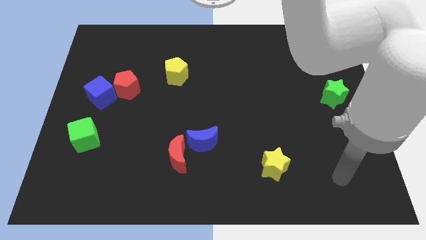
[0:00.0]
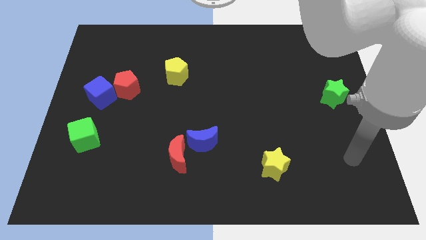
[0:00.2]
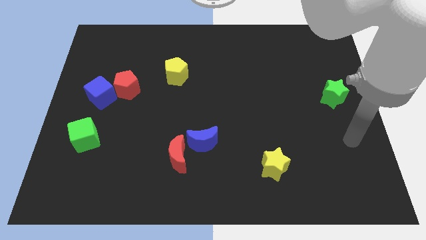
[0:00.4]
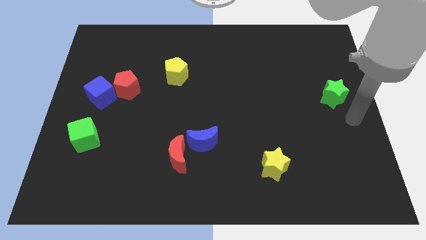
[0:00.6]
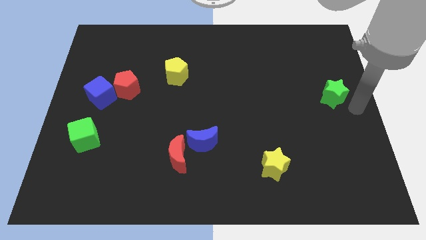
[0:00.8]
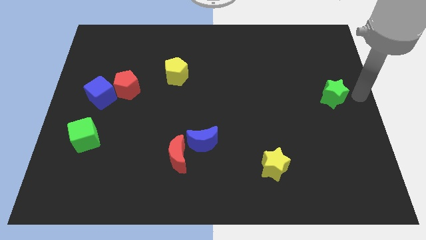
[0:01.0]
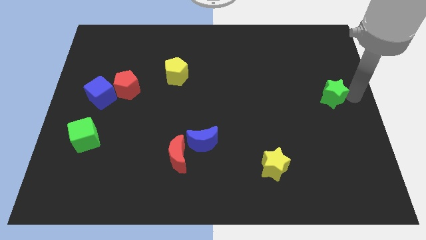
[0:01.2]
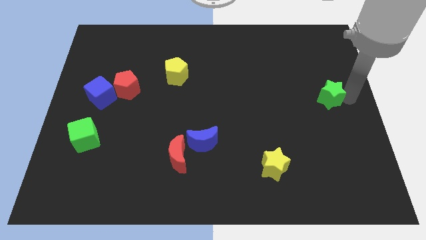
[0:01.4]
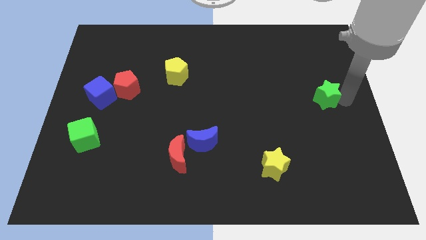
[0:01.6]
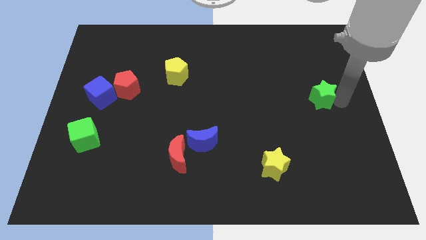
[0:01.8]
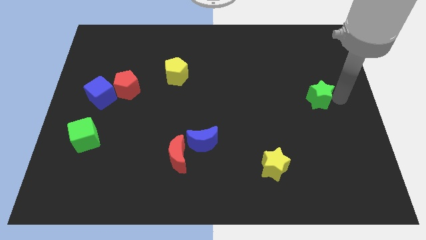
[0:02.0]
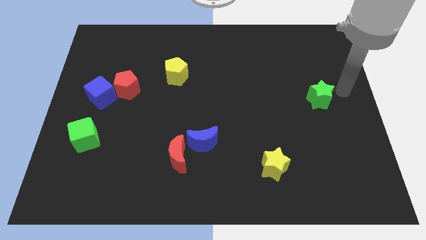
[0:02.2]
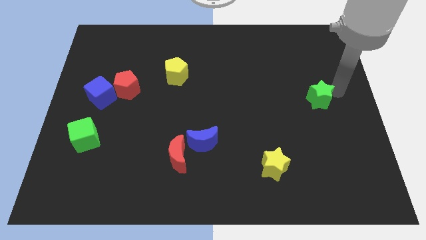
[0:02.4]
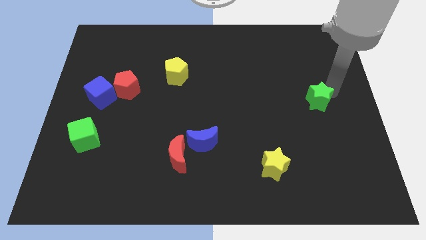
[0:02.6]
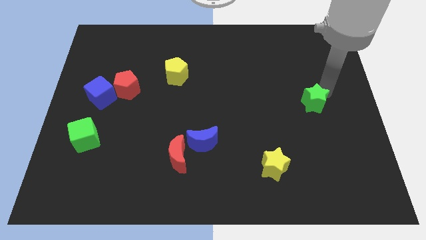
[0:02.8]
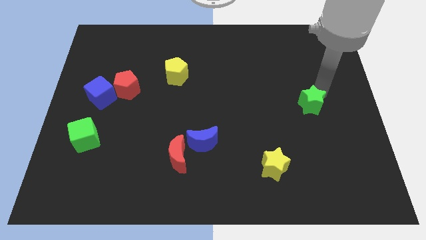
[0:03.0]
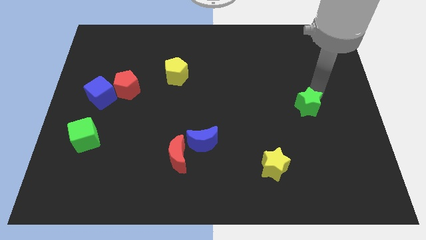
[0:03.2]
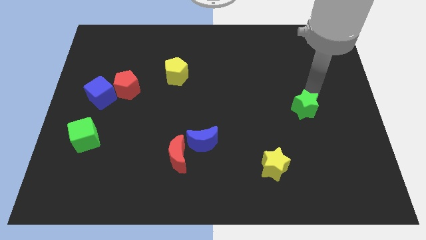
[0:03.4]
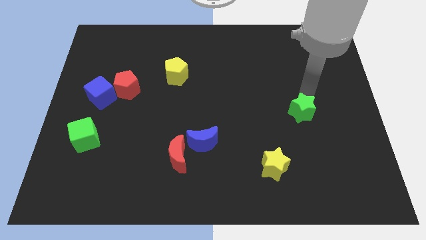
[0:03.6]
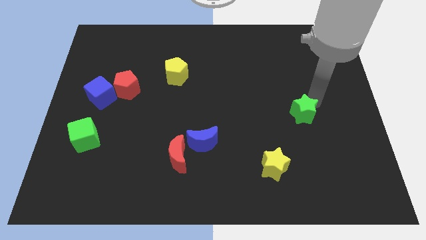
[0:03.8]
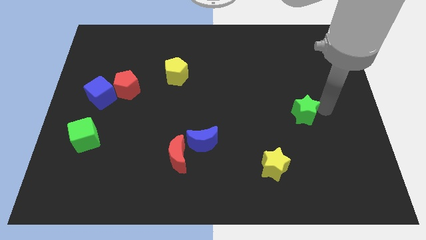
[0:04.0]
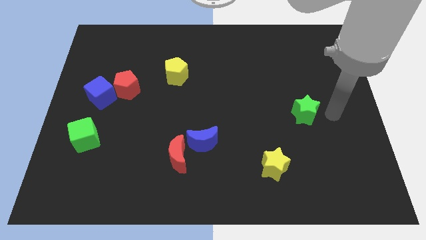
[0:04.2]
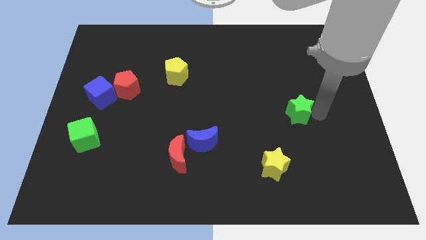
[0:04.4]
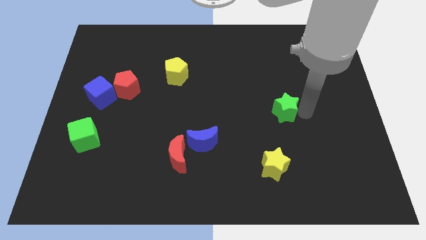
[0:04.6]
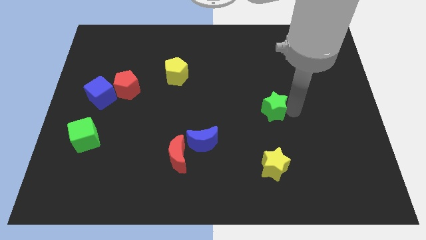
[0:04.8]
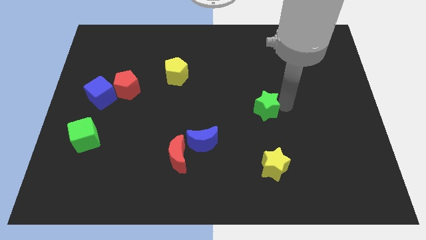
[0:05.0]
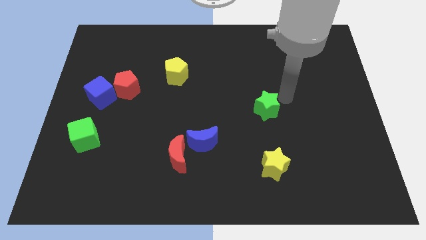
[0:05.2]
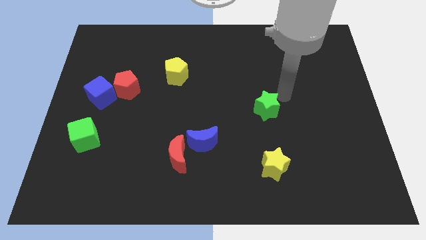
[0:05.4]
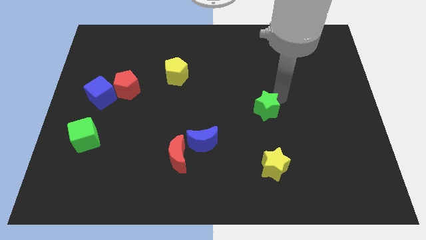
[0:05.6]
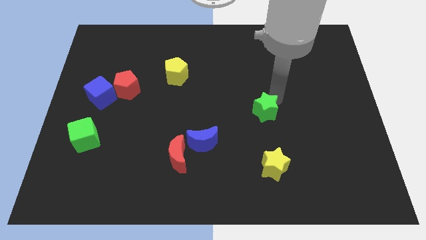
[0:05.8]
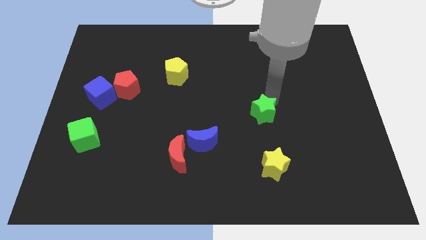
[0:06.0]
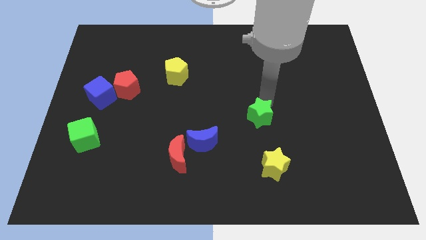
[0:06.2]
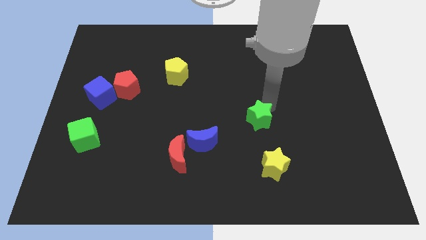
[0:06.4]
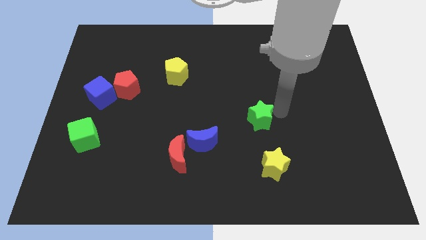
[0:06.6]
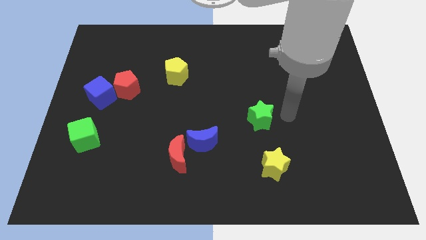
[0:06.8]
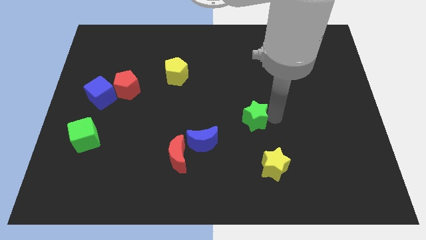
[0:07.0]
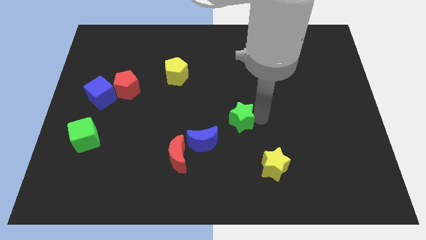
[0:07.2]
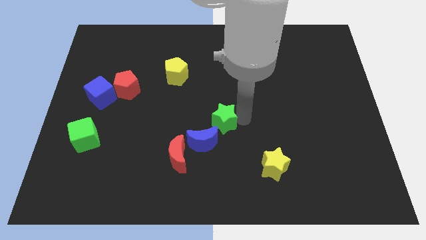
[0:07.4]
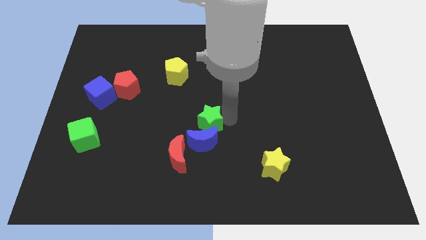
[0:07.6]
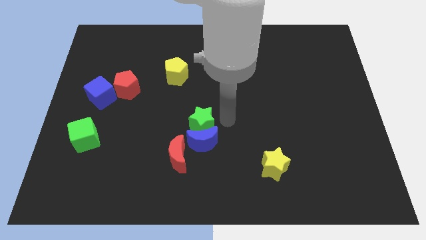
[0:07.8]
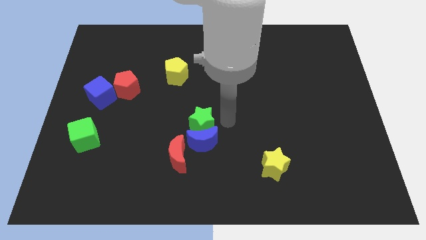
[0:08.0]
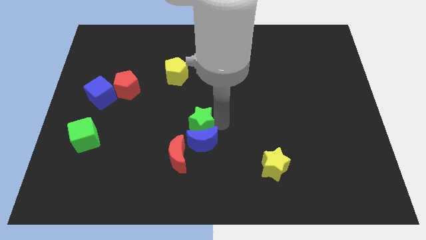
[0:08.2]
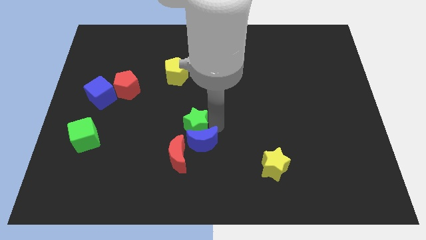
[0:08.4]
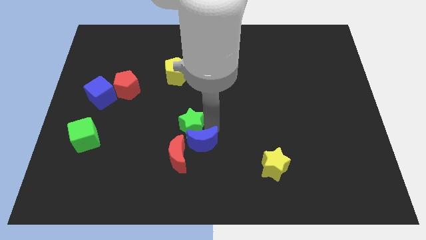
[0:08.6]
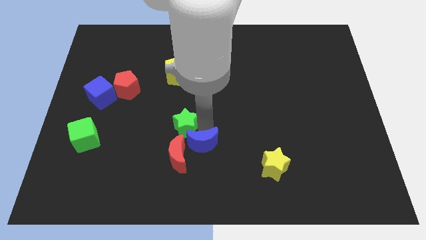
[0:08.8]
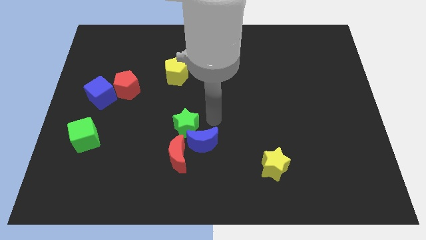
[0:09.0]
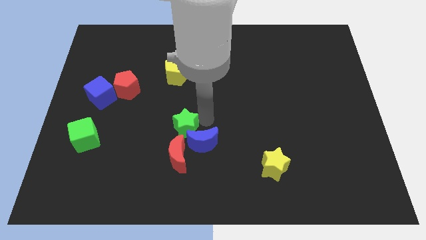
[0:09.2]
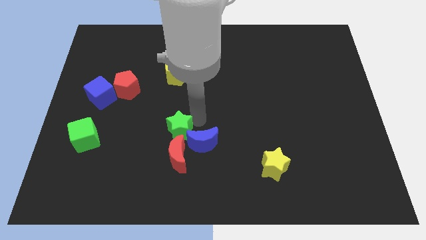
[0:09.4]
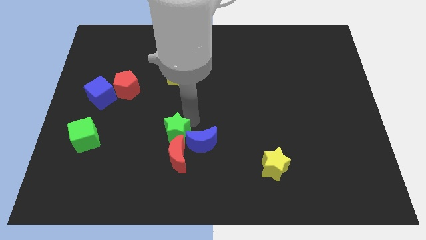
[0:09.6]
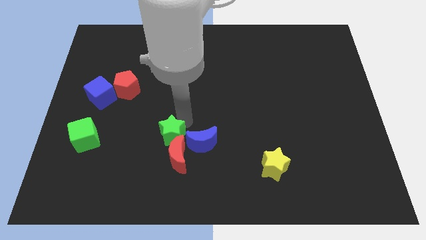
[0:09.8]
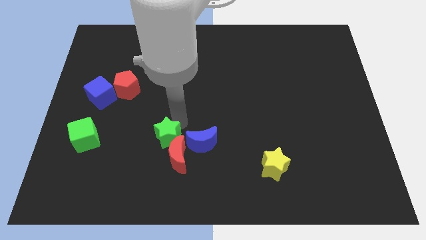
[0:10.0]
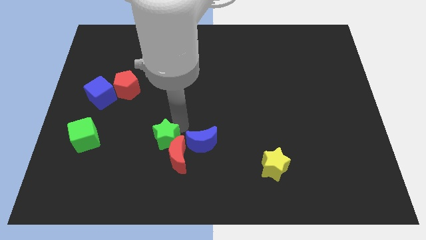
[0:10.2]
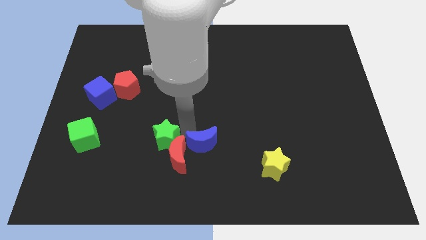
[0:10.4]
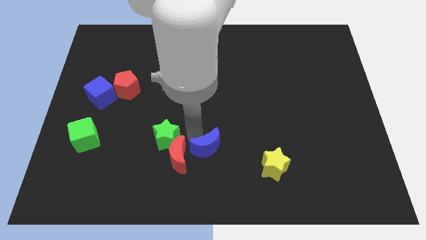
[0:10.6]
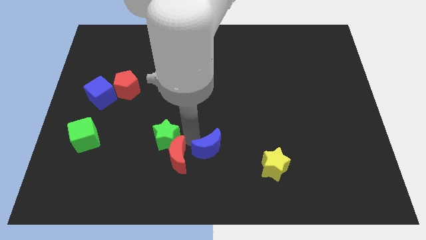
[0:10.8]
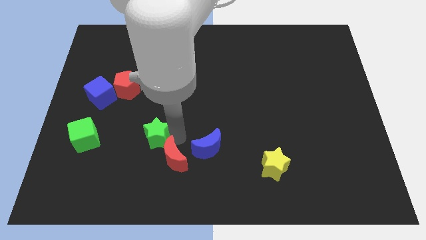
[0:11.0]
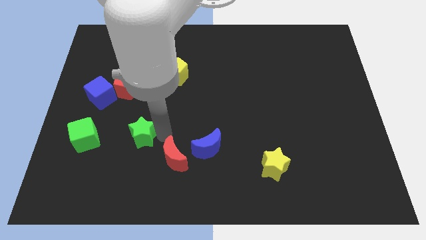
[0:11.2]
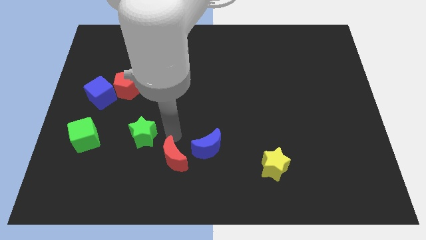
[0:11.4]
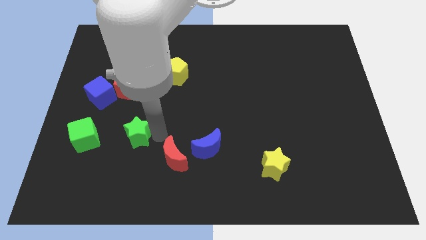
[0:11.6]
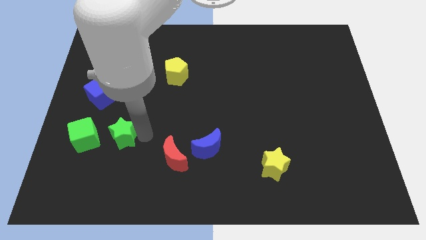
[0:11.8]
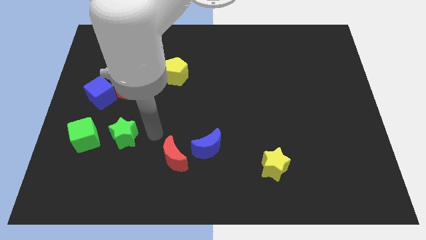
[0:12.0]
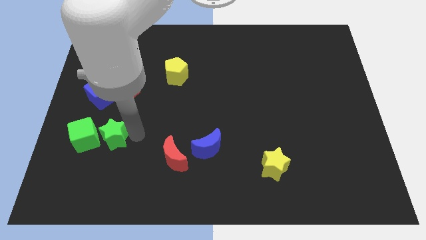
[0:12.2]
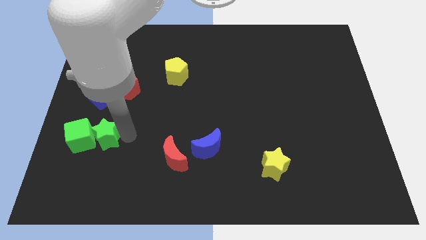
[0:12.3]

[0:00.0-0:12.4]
push the green star to the green cube

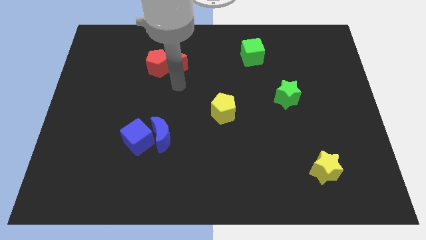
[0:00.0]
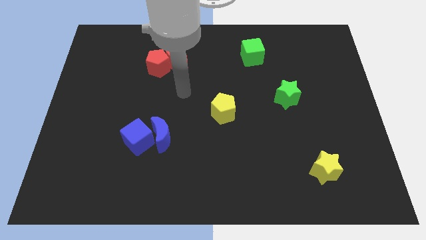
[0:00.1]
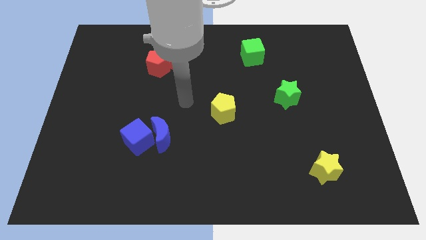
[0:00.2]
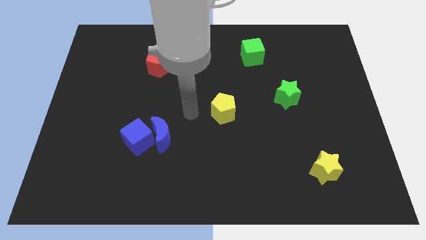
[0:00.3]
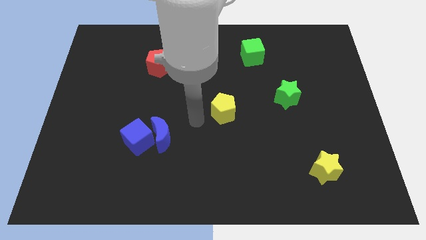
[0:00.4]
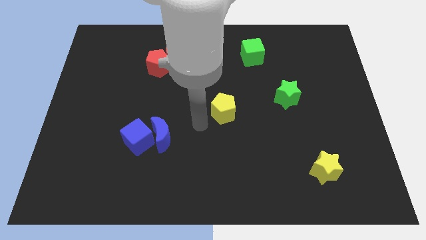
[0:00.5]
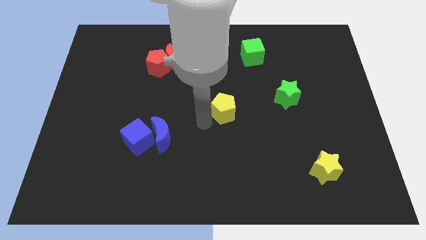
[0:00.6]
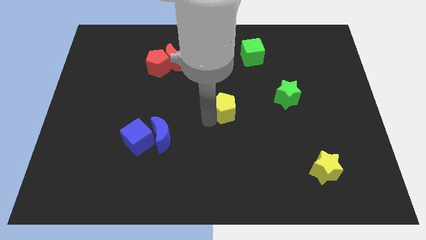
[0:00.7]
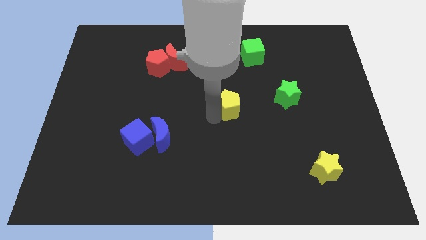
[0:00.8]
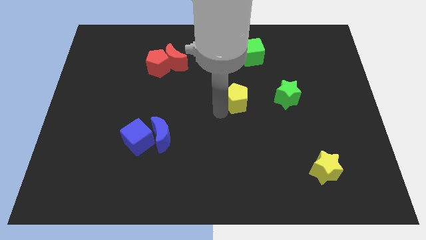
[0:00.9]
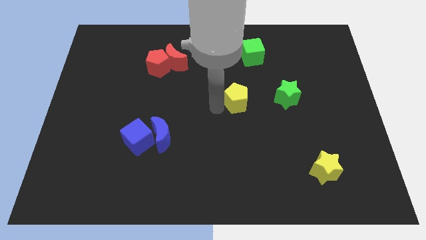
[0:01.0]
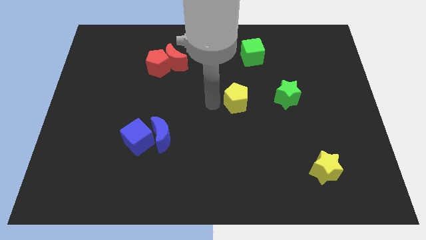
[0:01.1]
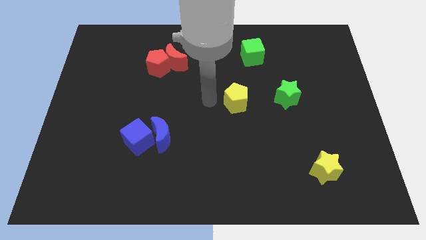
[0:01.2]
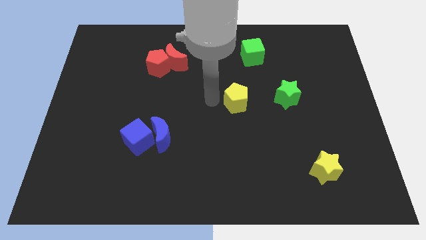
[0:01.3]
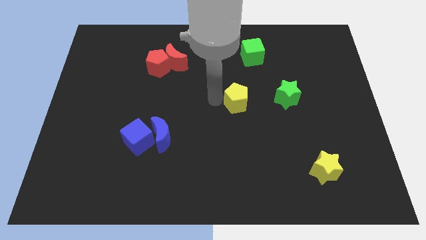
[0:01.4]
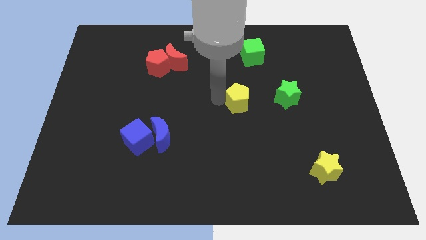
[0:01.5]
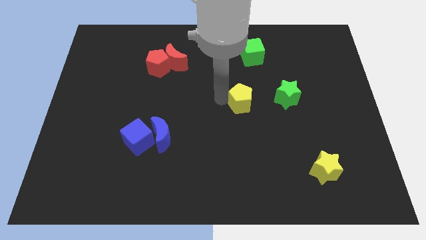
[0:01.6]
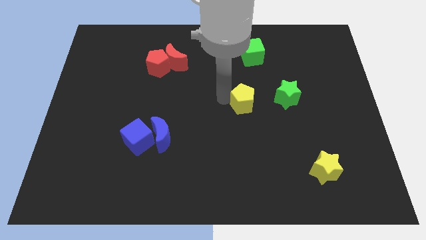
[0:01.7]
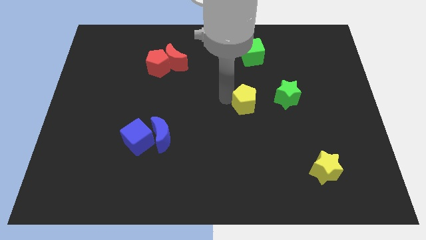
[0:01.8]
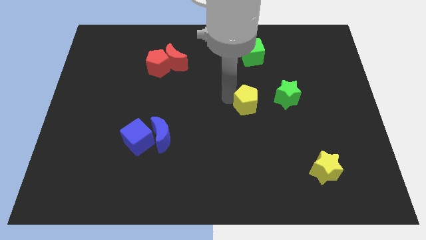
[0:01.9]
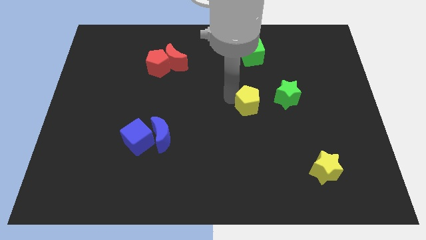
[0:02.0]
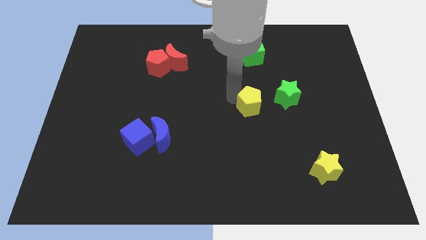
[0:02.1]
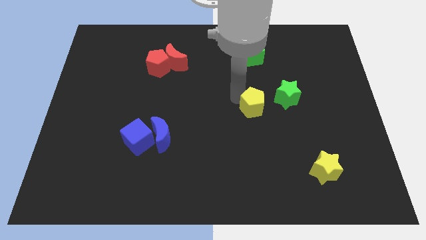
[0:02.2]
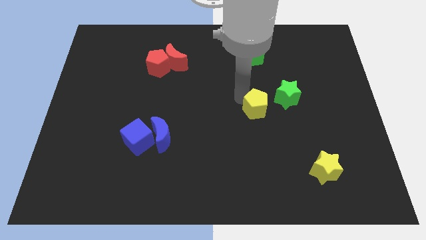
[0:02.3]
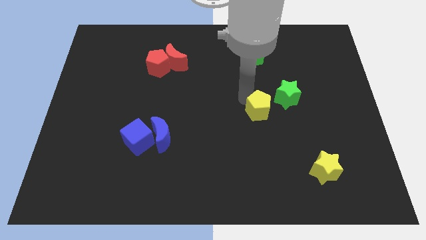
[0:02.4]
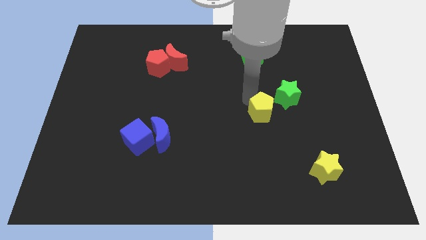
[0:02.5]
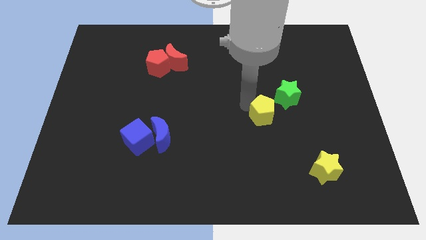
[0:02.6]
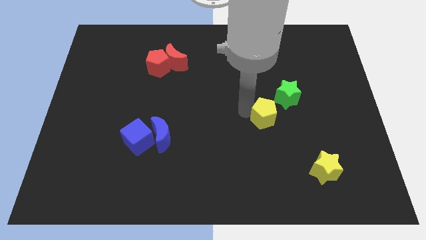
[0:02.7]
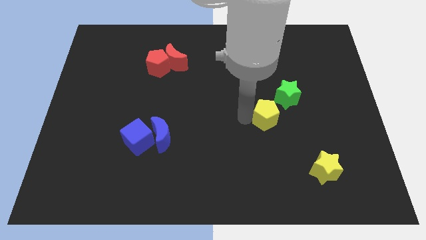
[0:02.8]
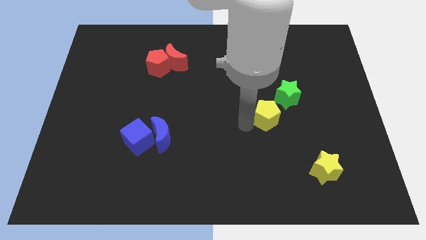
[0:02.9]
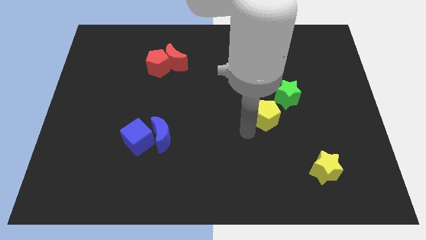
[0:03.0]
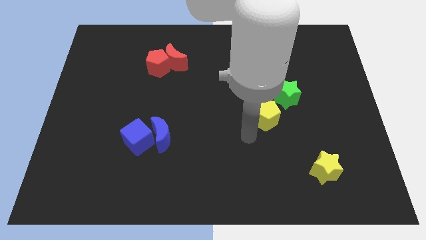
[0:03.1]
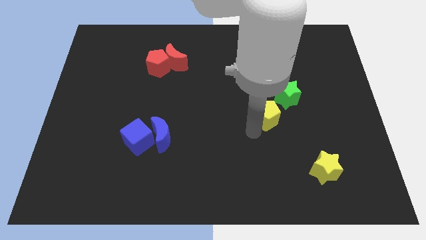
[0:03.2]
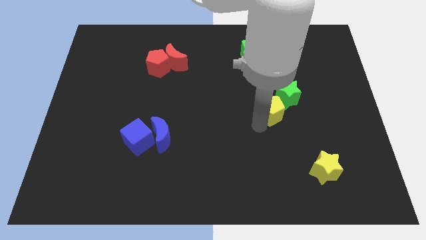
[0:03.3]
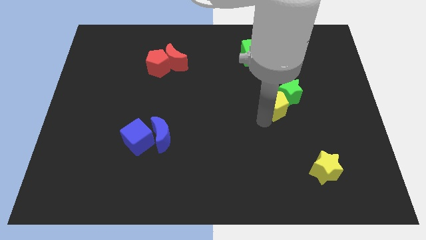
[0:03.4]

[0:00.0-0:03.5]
slide the yellow pentagon close to the green star
